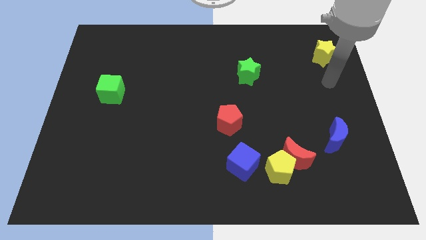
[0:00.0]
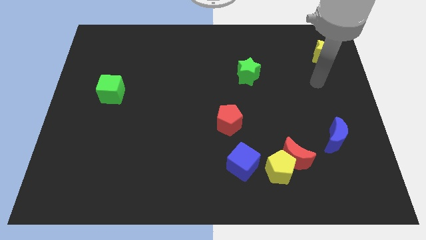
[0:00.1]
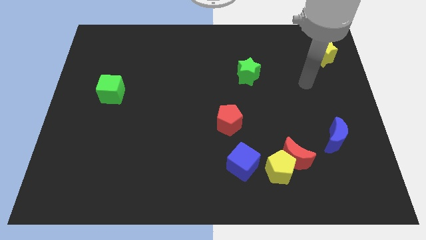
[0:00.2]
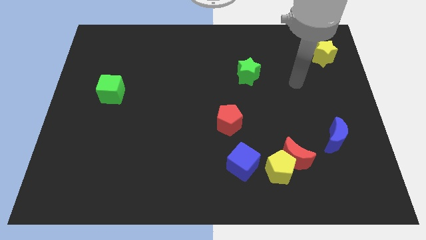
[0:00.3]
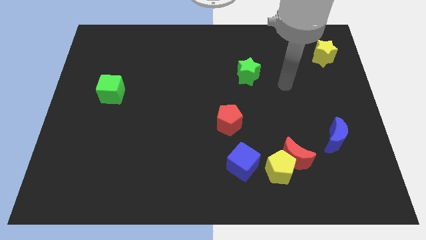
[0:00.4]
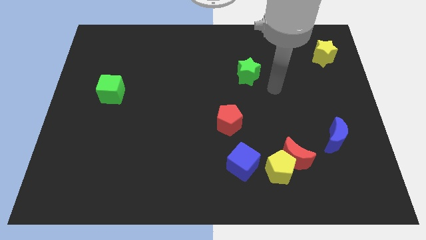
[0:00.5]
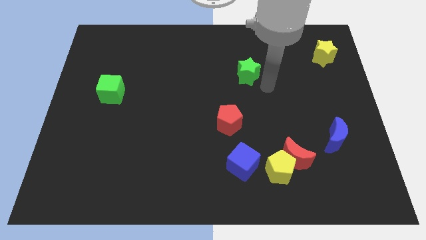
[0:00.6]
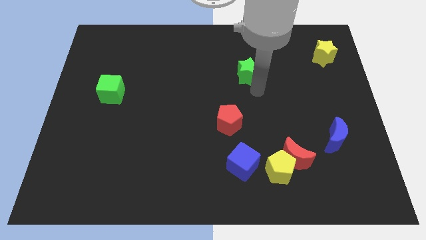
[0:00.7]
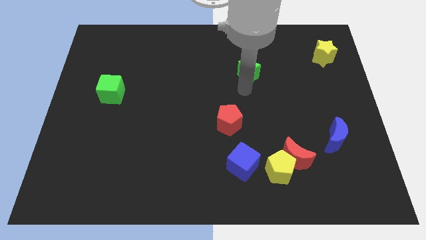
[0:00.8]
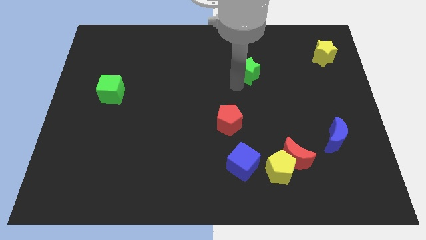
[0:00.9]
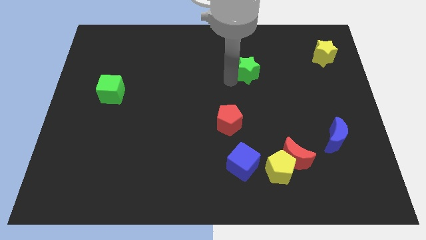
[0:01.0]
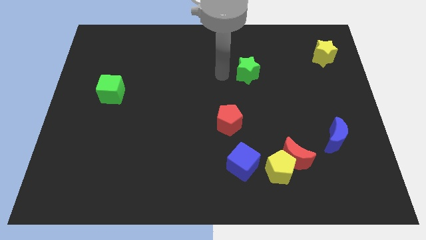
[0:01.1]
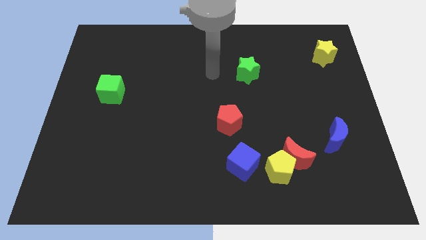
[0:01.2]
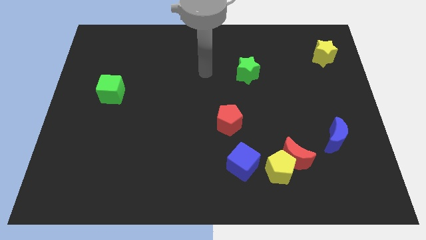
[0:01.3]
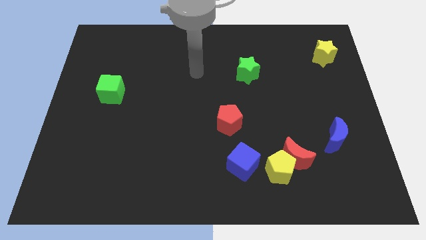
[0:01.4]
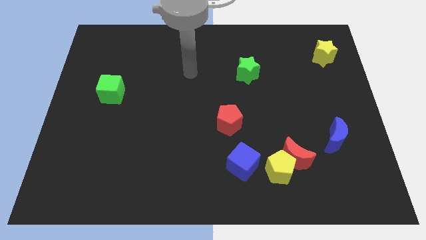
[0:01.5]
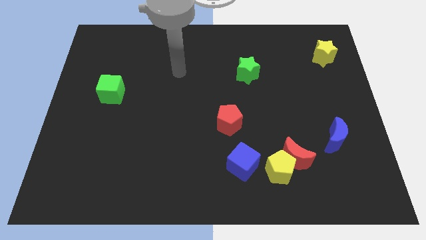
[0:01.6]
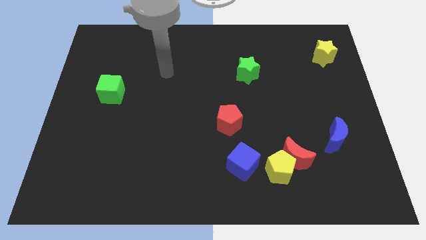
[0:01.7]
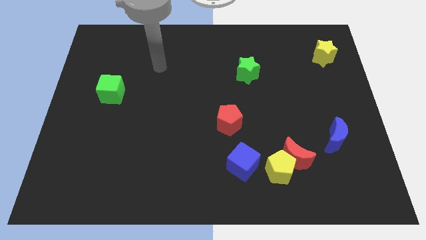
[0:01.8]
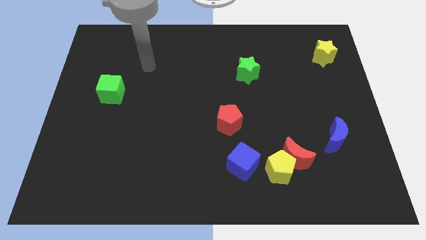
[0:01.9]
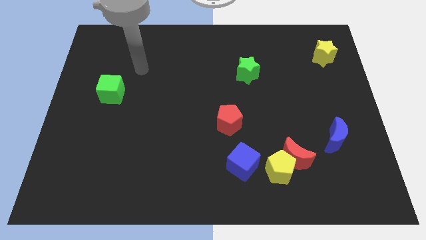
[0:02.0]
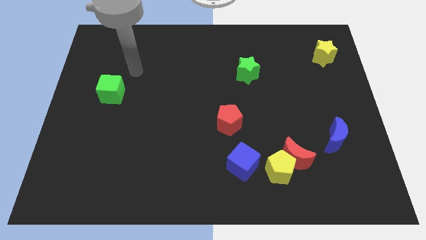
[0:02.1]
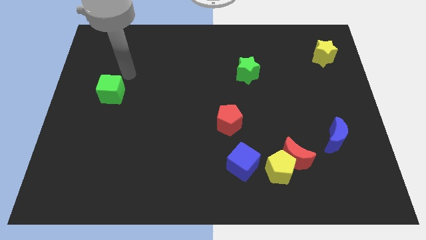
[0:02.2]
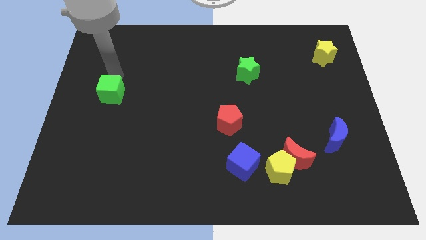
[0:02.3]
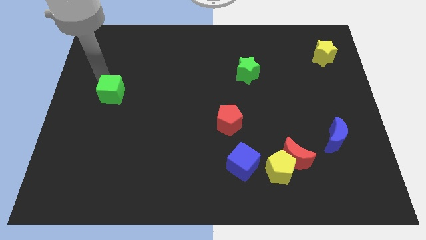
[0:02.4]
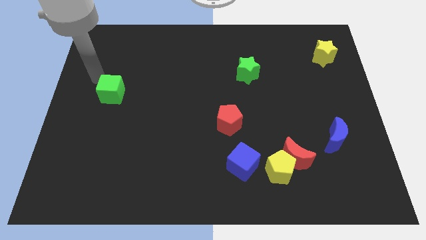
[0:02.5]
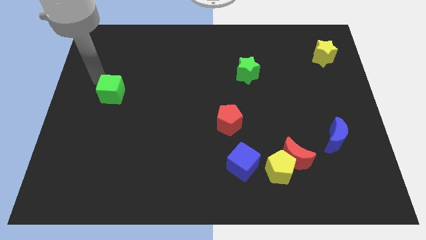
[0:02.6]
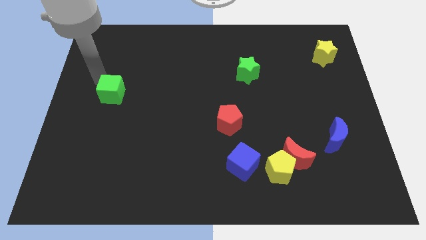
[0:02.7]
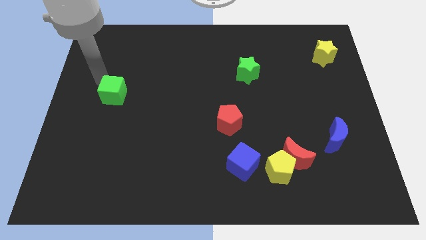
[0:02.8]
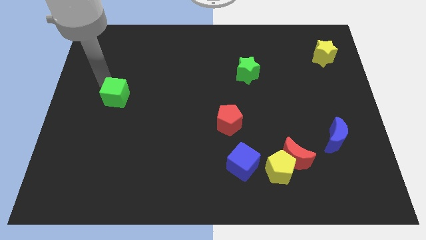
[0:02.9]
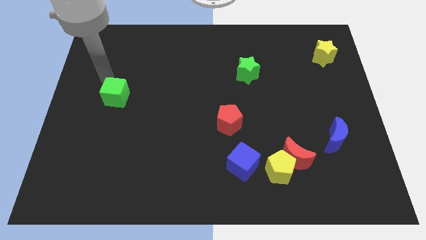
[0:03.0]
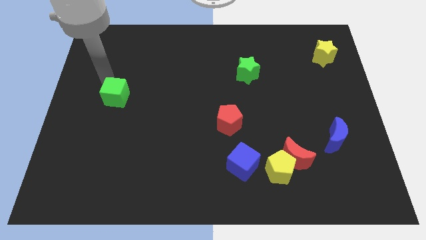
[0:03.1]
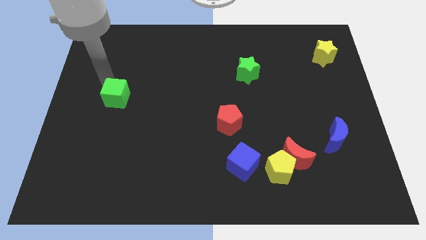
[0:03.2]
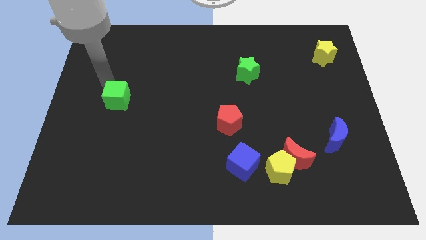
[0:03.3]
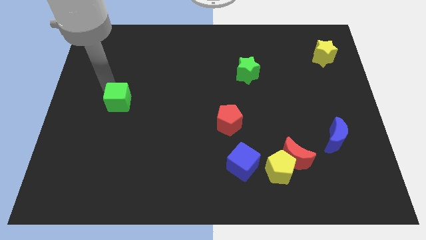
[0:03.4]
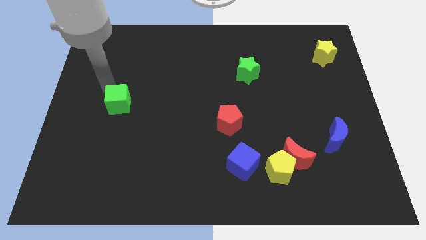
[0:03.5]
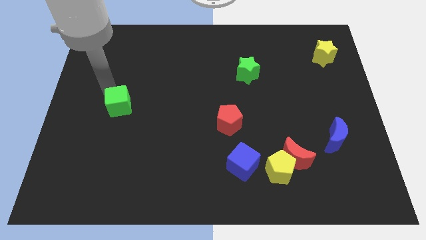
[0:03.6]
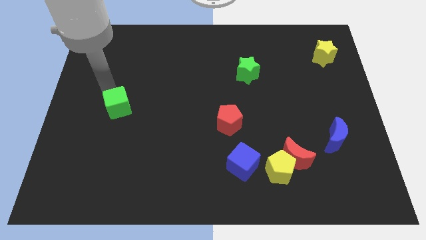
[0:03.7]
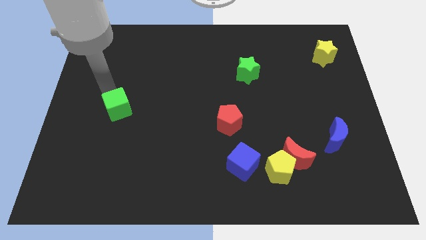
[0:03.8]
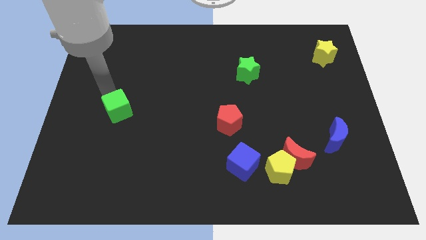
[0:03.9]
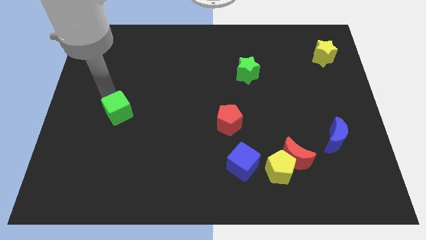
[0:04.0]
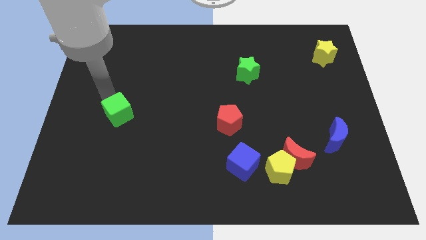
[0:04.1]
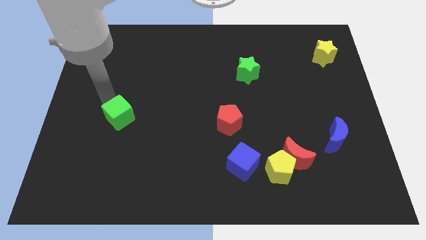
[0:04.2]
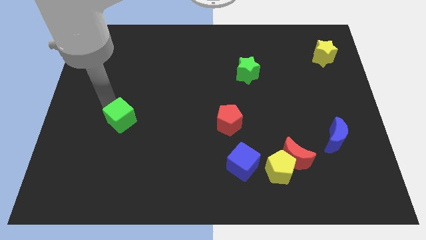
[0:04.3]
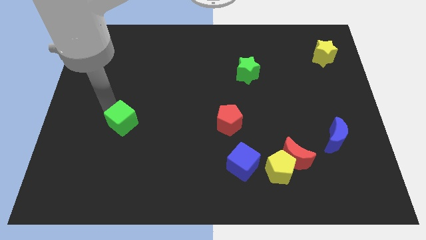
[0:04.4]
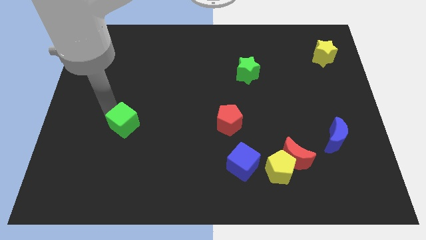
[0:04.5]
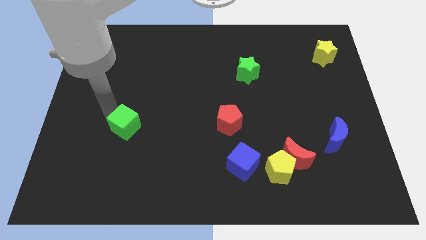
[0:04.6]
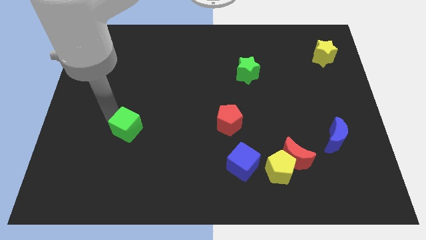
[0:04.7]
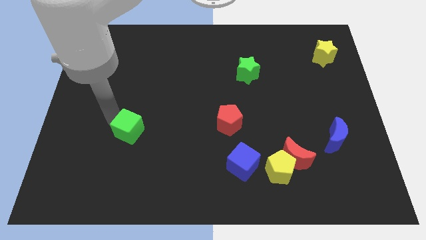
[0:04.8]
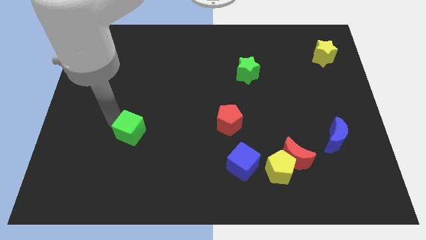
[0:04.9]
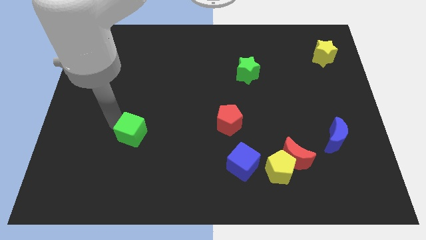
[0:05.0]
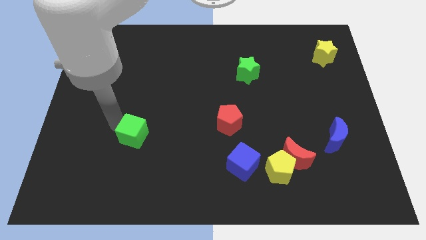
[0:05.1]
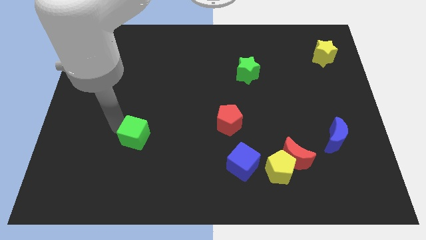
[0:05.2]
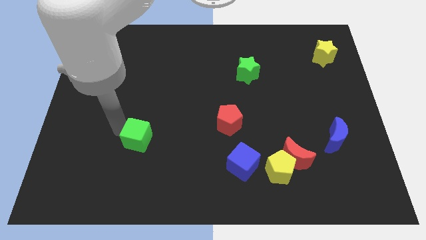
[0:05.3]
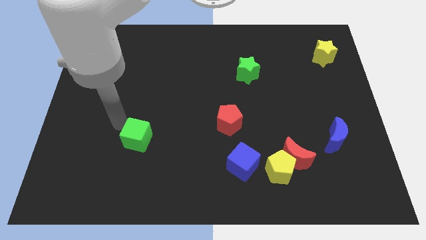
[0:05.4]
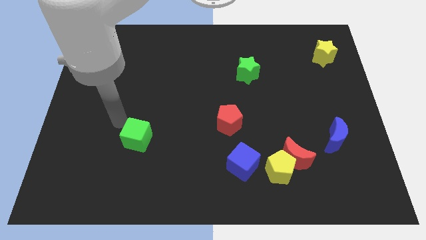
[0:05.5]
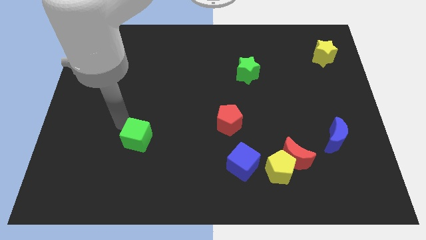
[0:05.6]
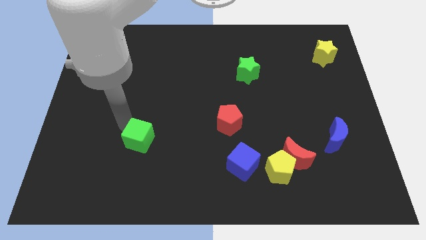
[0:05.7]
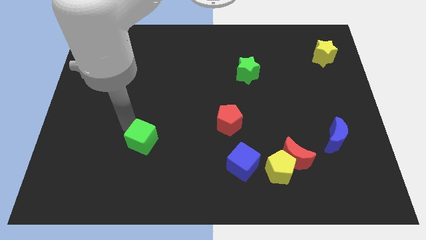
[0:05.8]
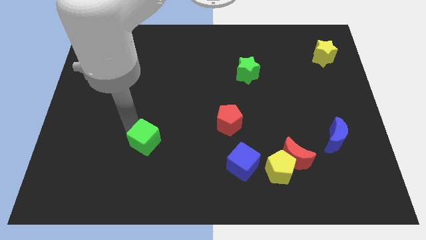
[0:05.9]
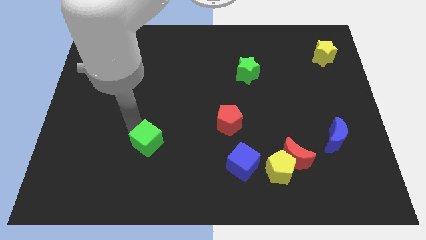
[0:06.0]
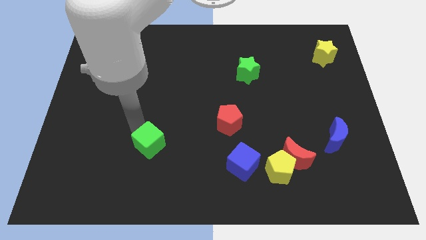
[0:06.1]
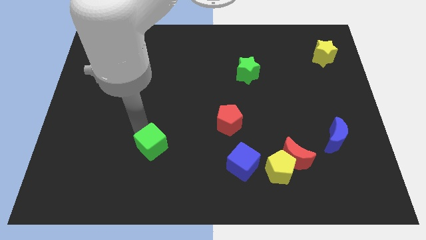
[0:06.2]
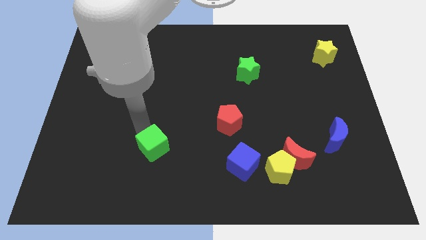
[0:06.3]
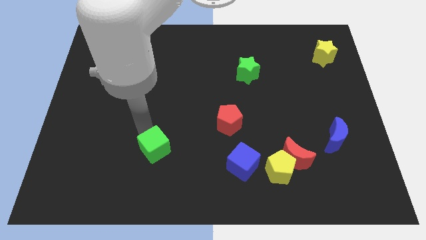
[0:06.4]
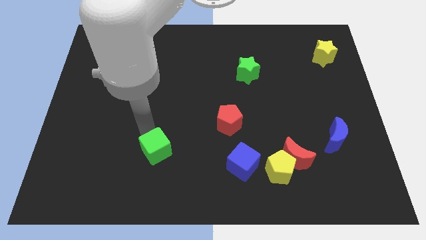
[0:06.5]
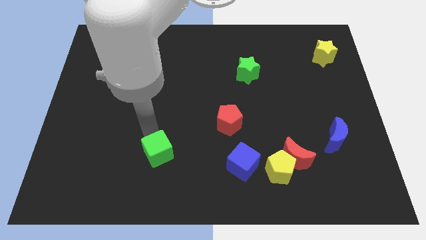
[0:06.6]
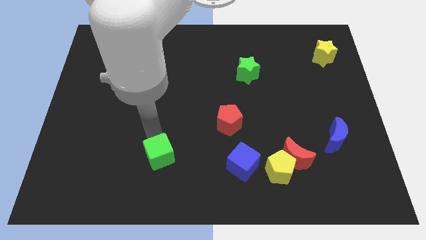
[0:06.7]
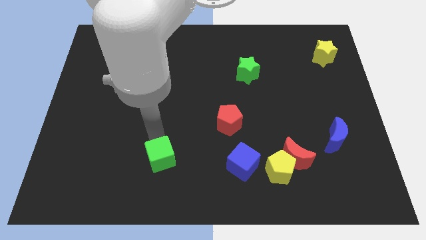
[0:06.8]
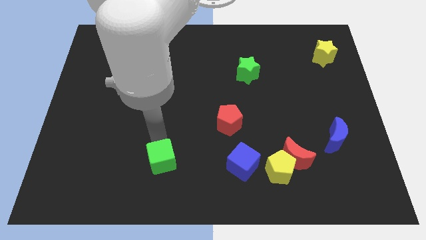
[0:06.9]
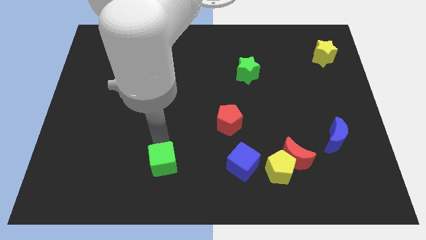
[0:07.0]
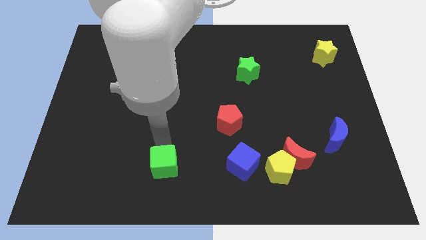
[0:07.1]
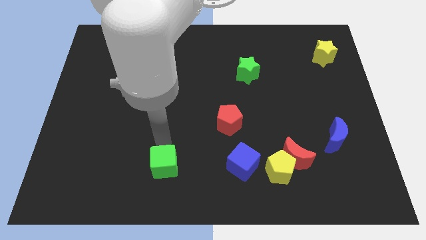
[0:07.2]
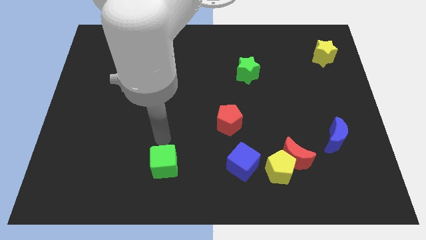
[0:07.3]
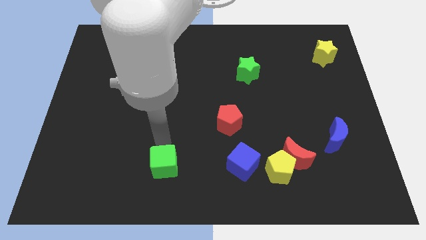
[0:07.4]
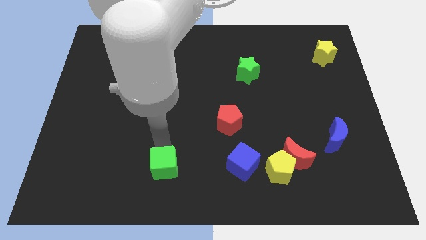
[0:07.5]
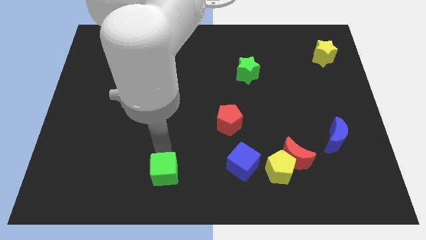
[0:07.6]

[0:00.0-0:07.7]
put the green cube to the bottom
